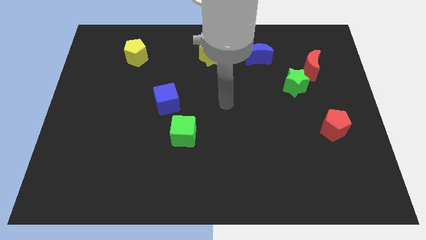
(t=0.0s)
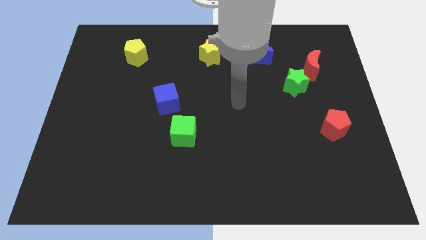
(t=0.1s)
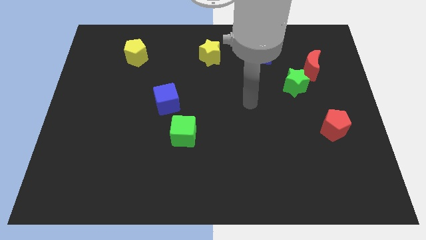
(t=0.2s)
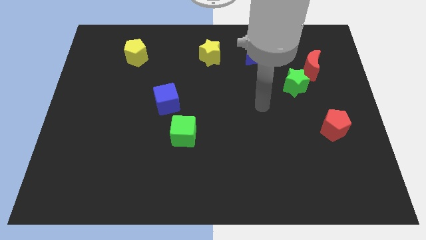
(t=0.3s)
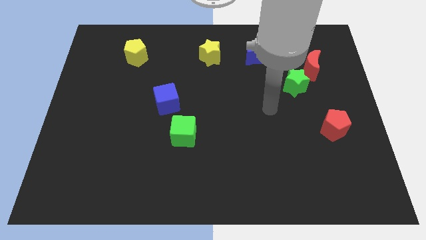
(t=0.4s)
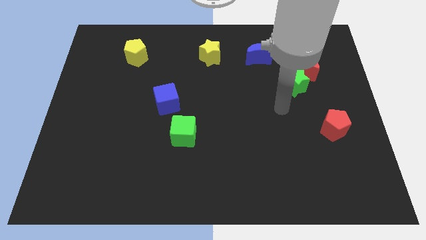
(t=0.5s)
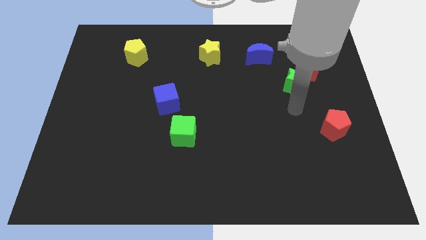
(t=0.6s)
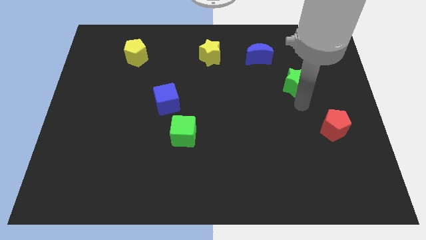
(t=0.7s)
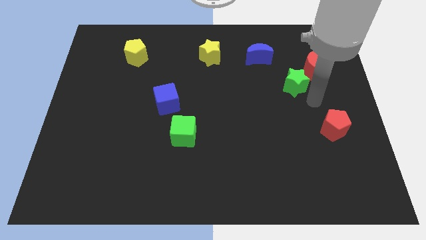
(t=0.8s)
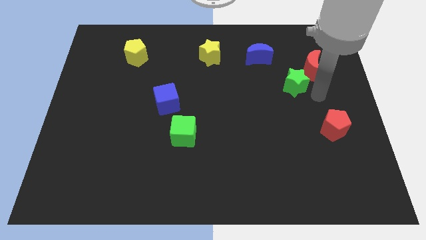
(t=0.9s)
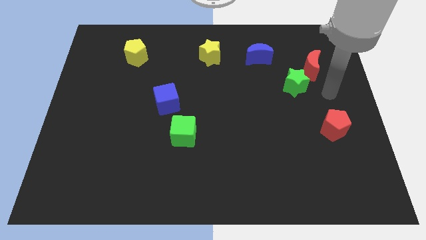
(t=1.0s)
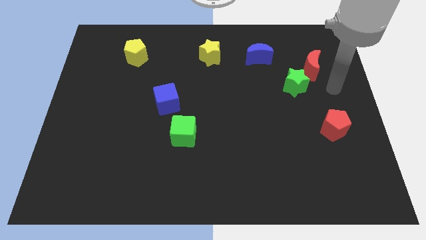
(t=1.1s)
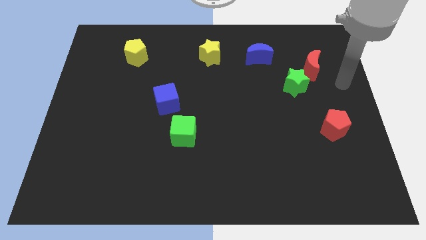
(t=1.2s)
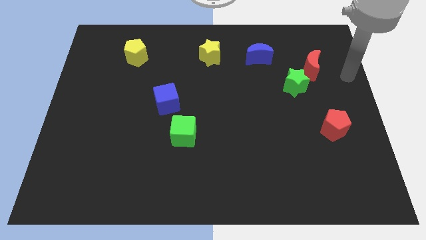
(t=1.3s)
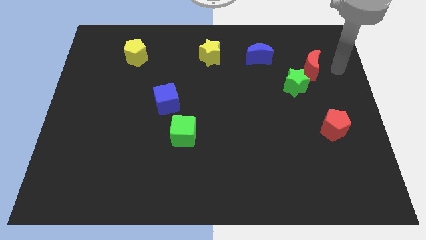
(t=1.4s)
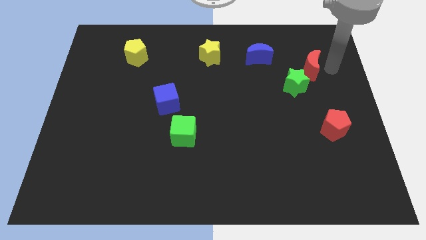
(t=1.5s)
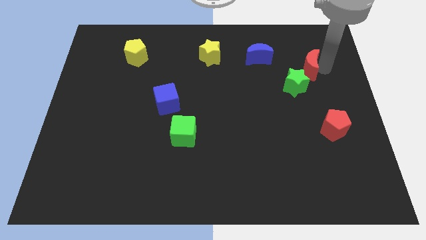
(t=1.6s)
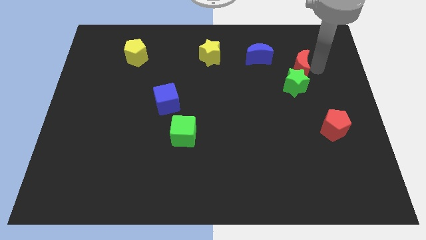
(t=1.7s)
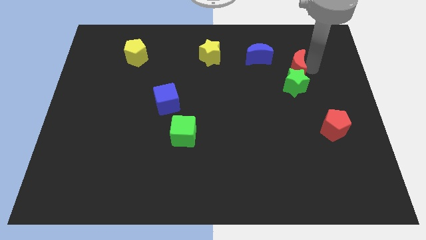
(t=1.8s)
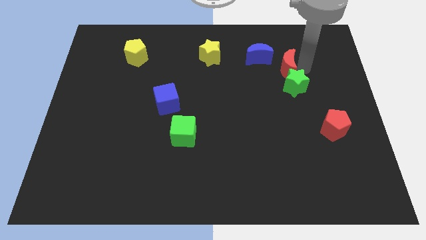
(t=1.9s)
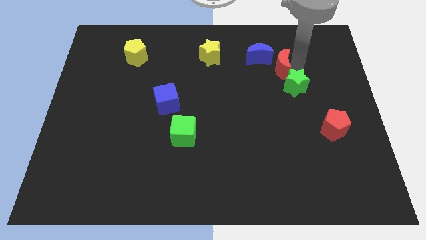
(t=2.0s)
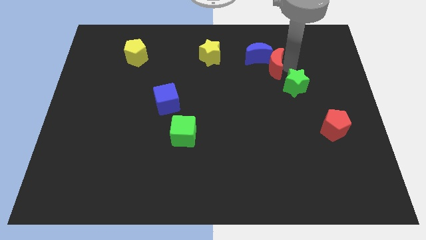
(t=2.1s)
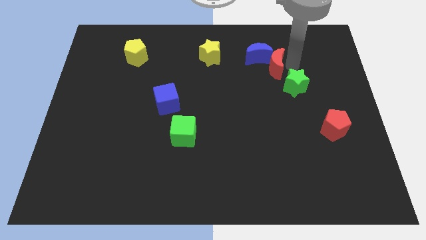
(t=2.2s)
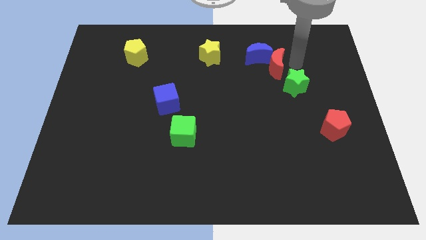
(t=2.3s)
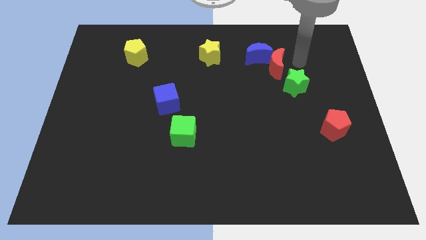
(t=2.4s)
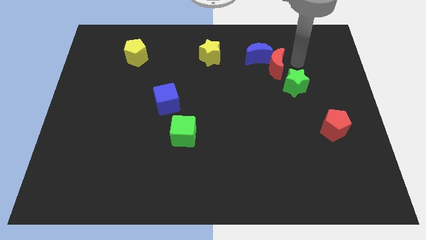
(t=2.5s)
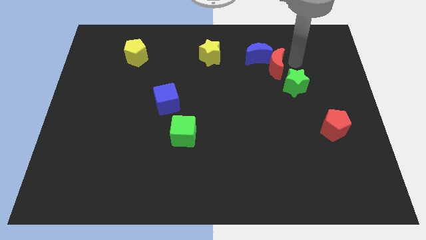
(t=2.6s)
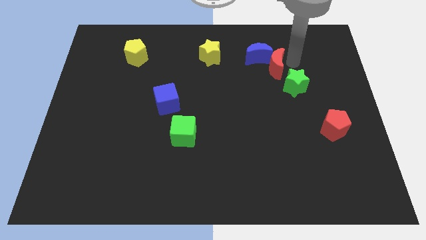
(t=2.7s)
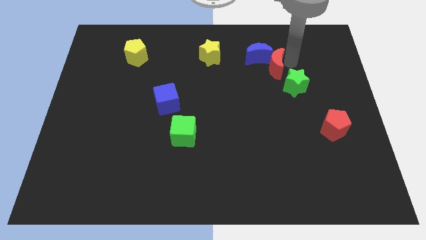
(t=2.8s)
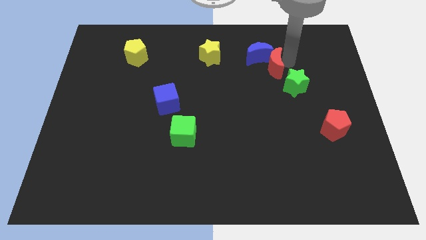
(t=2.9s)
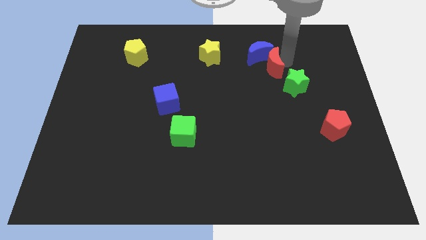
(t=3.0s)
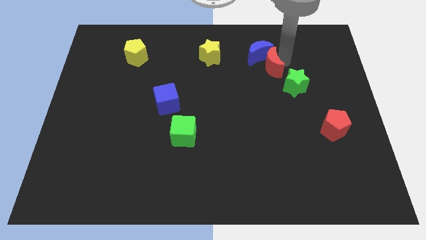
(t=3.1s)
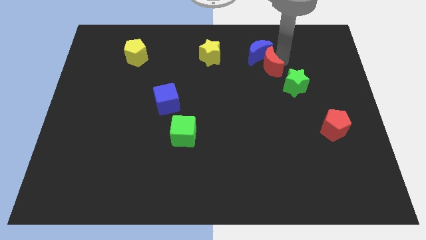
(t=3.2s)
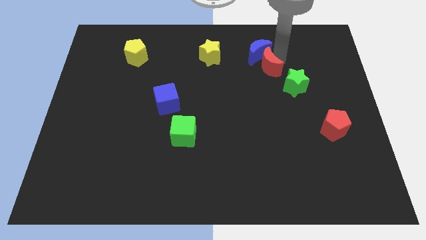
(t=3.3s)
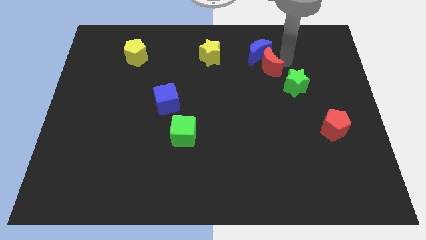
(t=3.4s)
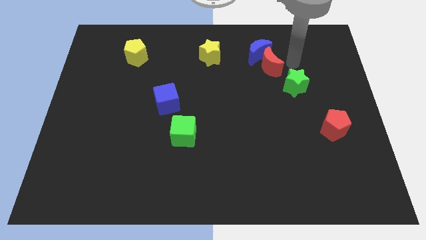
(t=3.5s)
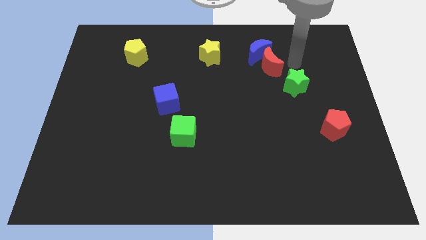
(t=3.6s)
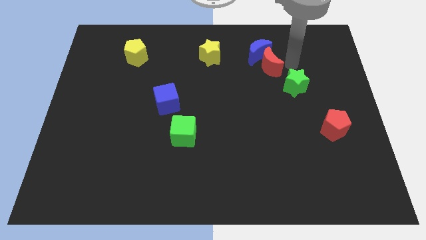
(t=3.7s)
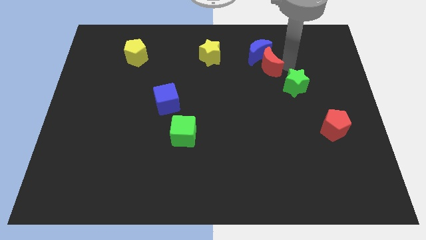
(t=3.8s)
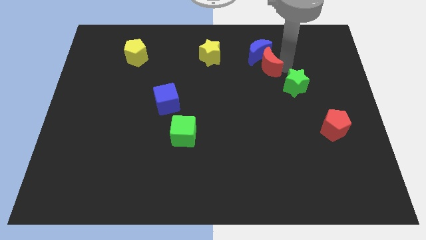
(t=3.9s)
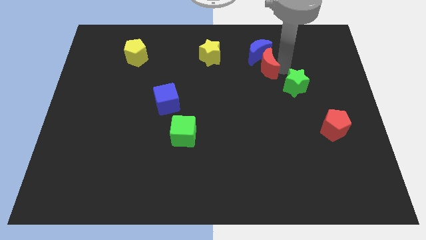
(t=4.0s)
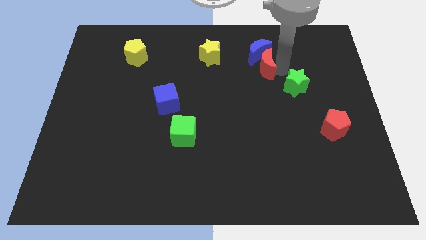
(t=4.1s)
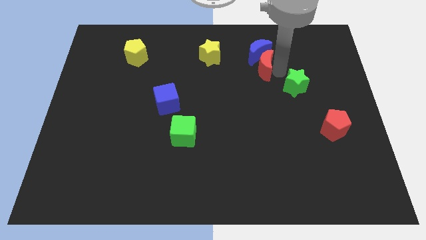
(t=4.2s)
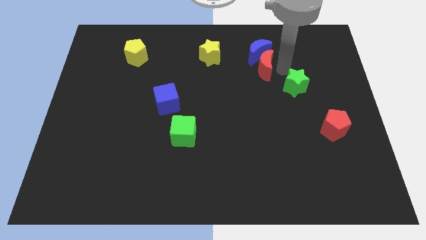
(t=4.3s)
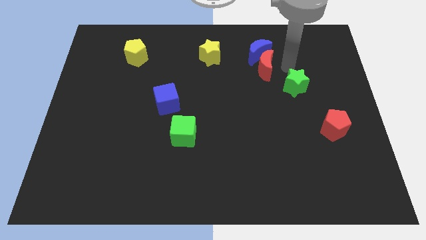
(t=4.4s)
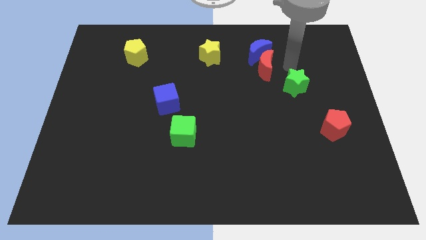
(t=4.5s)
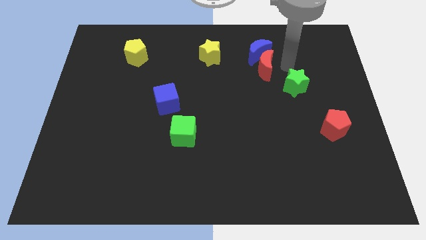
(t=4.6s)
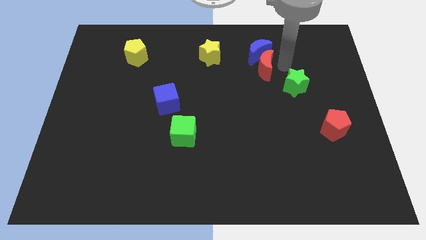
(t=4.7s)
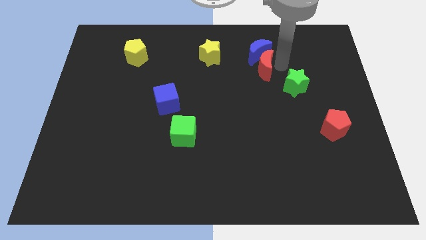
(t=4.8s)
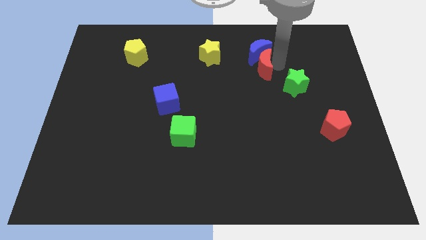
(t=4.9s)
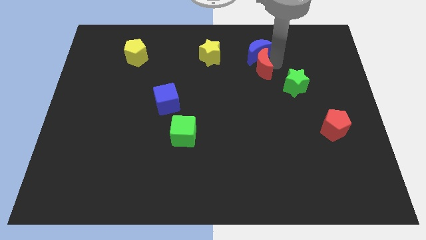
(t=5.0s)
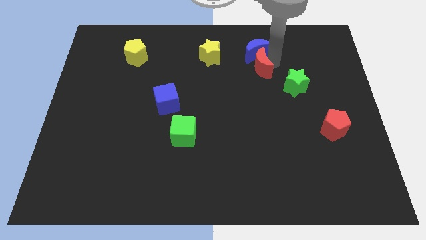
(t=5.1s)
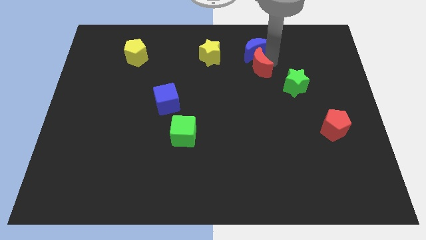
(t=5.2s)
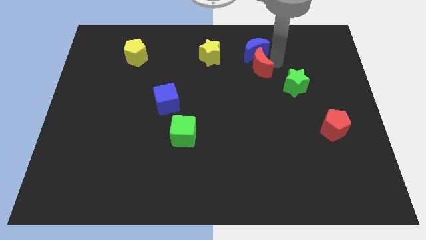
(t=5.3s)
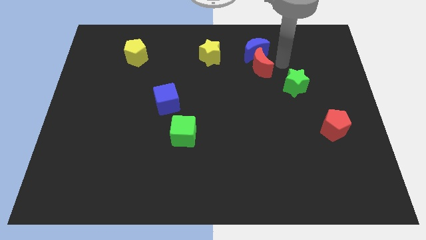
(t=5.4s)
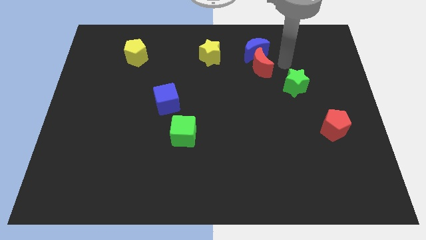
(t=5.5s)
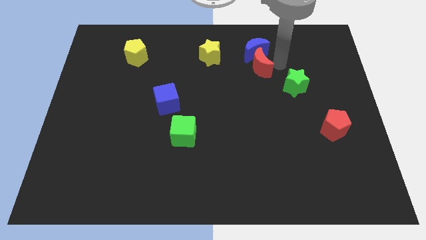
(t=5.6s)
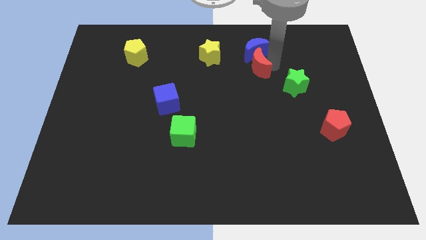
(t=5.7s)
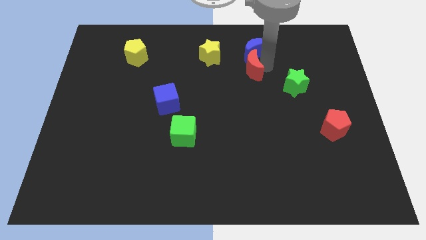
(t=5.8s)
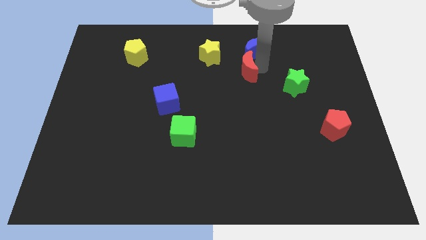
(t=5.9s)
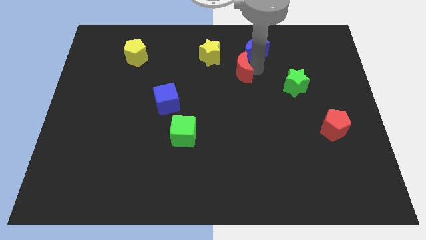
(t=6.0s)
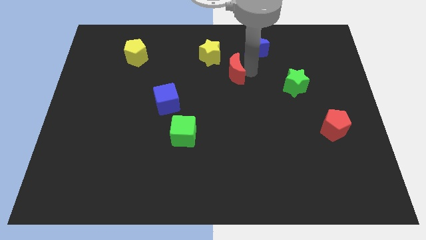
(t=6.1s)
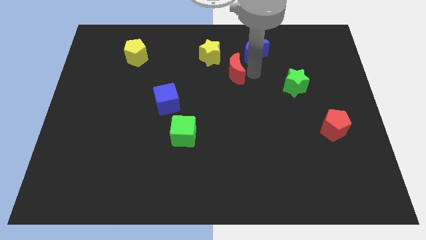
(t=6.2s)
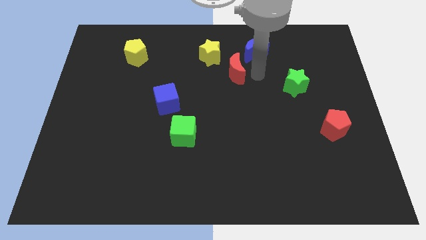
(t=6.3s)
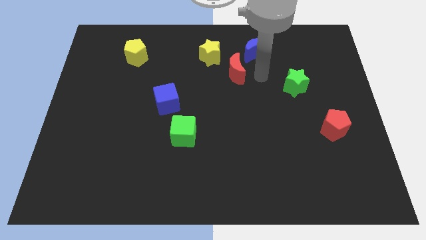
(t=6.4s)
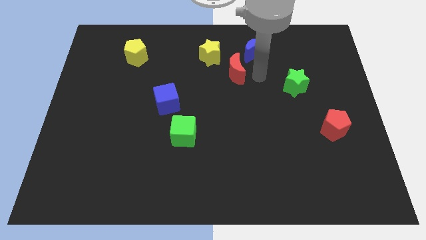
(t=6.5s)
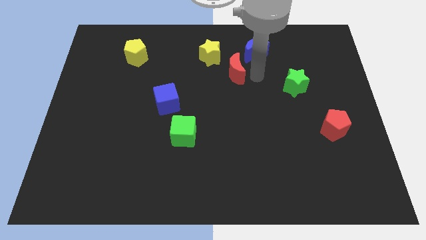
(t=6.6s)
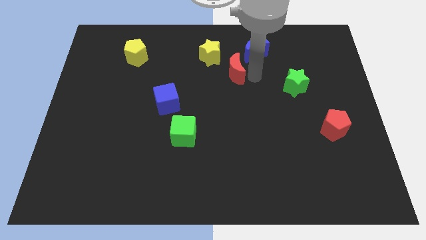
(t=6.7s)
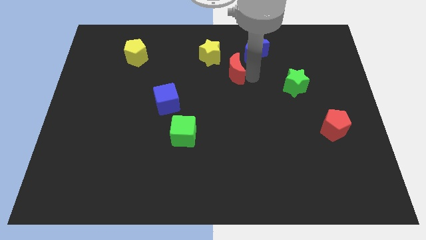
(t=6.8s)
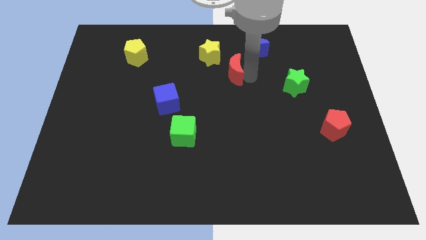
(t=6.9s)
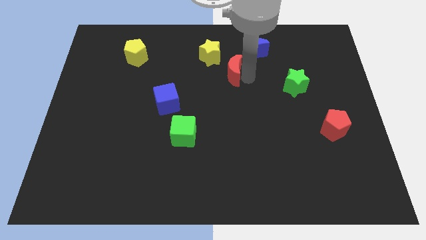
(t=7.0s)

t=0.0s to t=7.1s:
push the red moon to the left

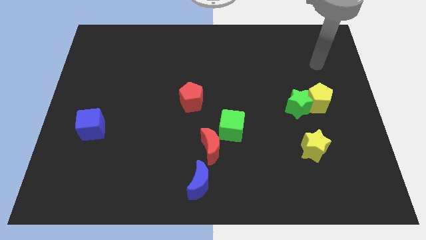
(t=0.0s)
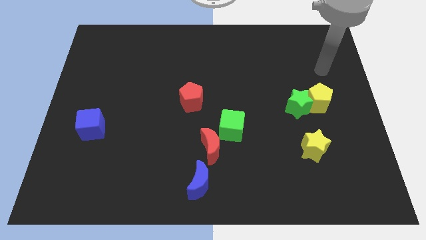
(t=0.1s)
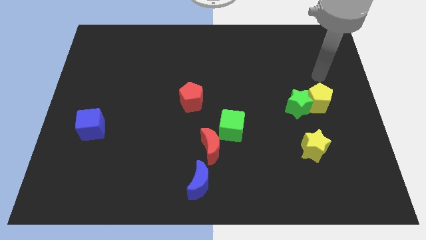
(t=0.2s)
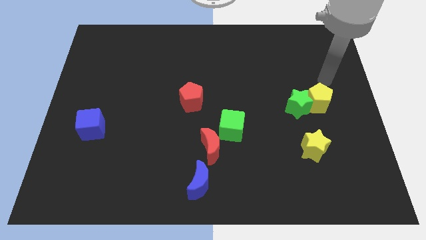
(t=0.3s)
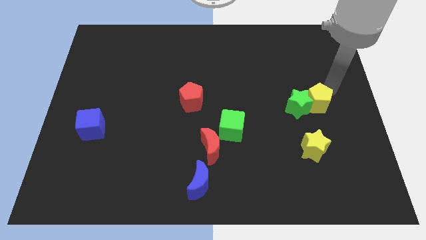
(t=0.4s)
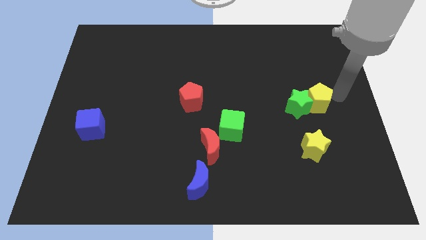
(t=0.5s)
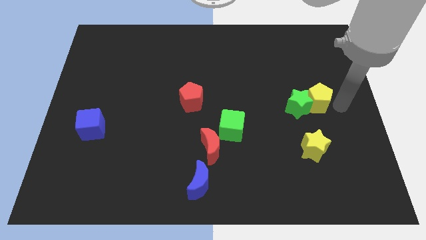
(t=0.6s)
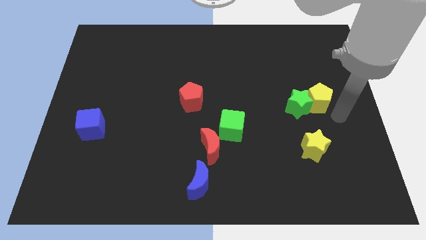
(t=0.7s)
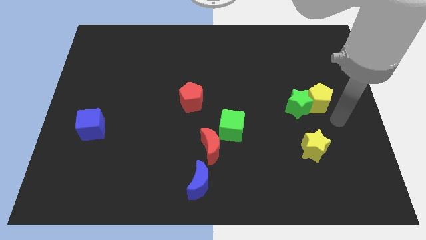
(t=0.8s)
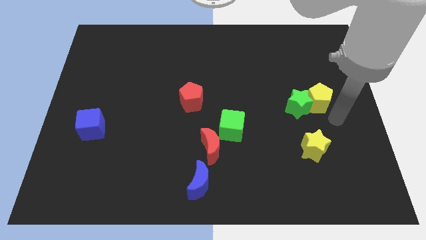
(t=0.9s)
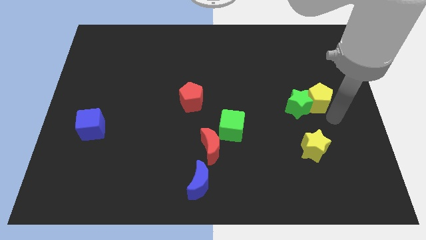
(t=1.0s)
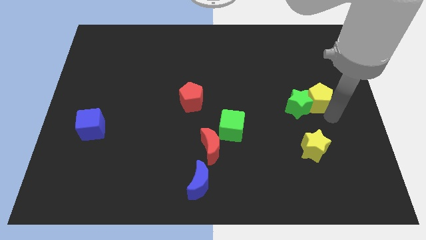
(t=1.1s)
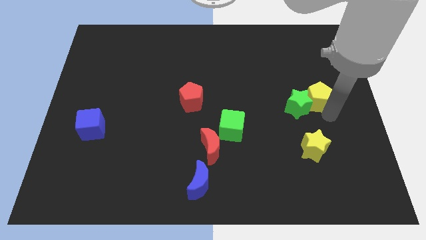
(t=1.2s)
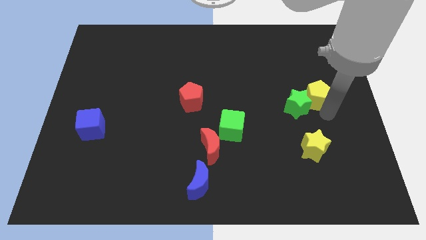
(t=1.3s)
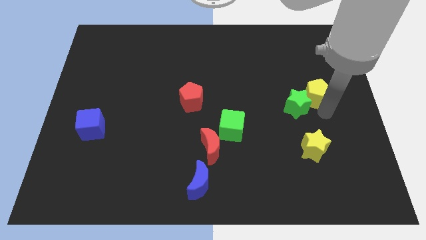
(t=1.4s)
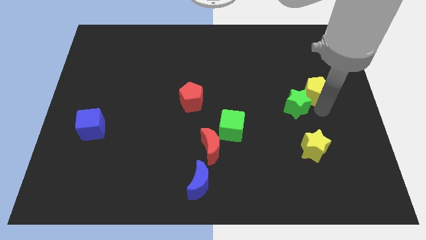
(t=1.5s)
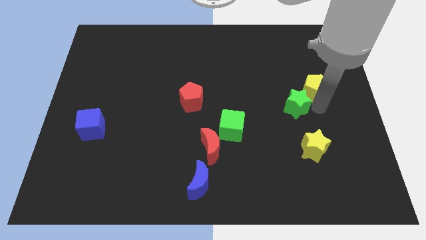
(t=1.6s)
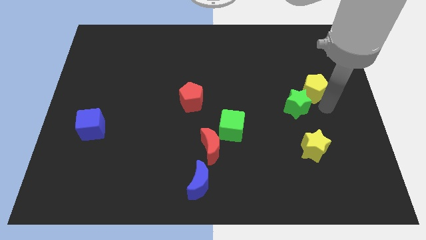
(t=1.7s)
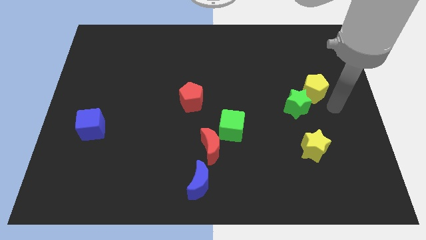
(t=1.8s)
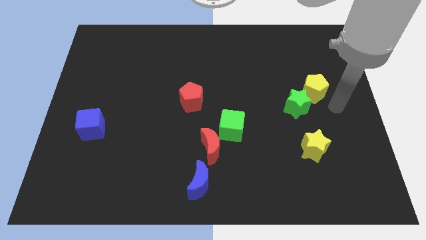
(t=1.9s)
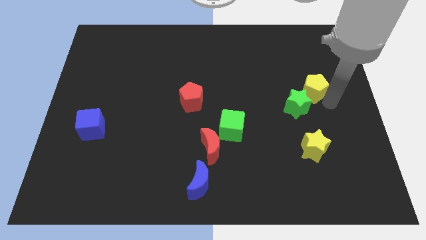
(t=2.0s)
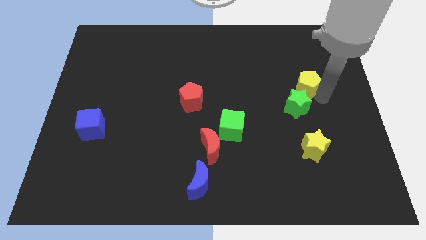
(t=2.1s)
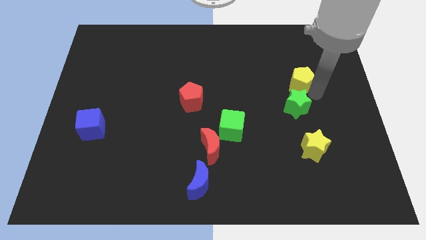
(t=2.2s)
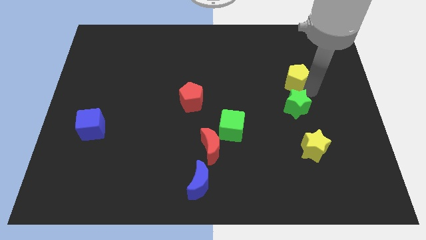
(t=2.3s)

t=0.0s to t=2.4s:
slightly push the yellow pentagon diagonally upwards and to the left
